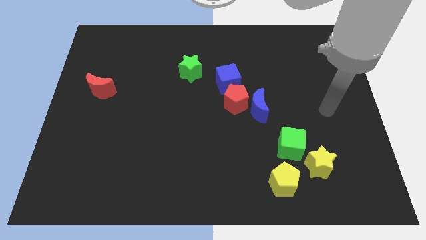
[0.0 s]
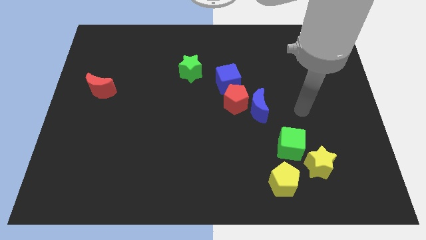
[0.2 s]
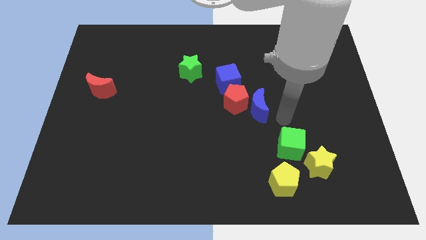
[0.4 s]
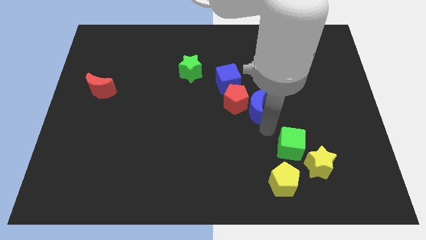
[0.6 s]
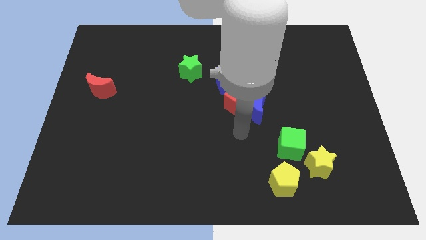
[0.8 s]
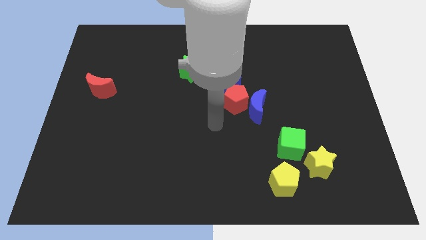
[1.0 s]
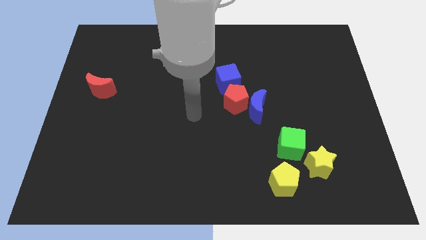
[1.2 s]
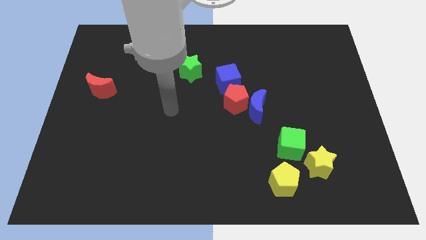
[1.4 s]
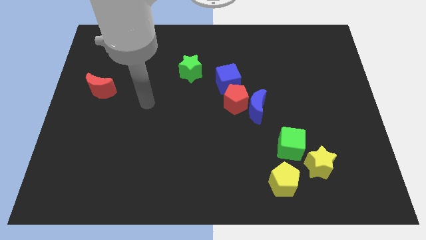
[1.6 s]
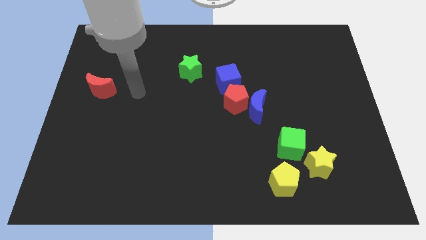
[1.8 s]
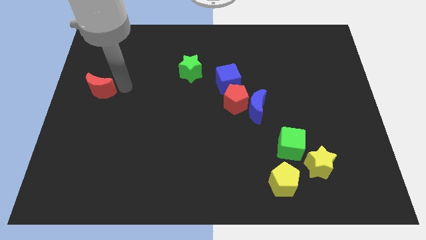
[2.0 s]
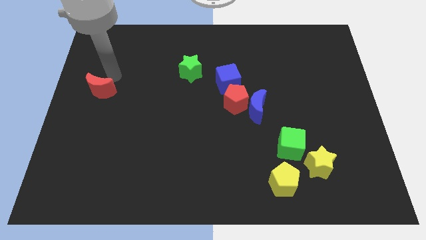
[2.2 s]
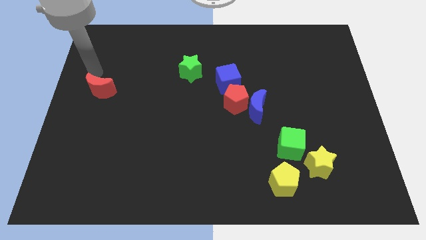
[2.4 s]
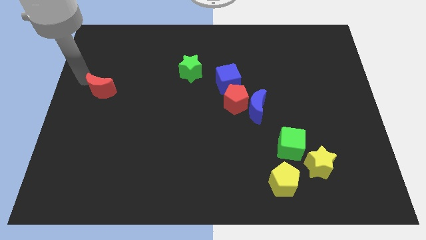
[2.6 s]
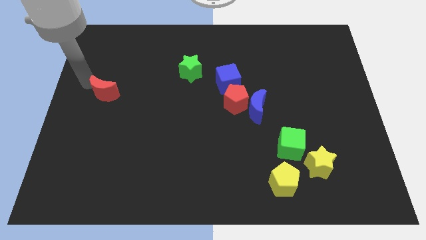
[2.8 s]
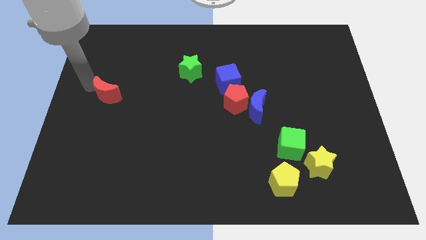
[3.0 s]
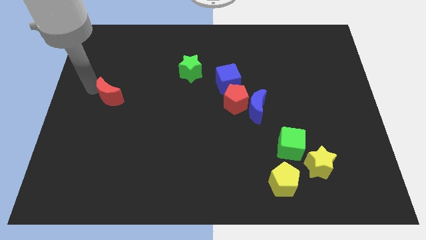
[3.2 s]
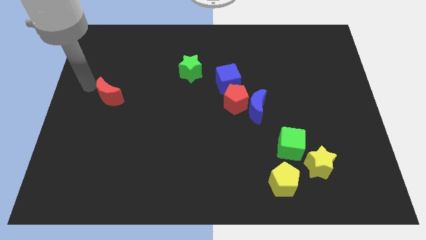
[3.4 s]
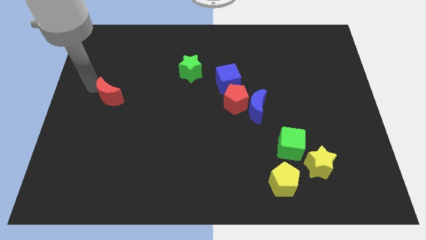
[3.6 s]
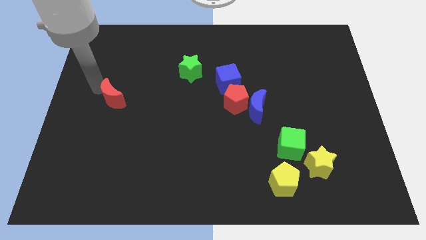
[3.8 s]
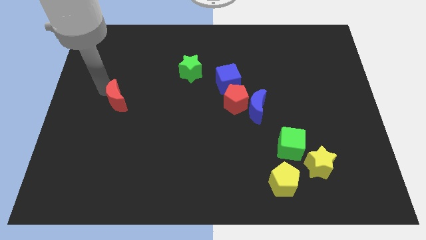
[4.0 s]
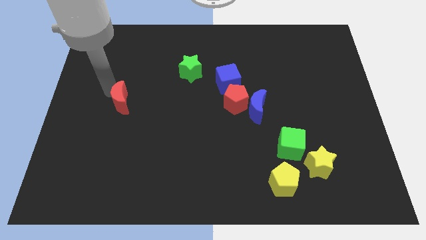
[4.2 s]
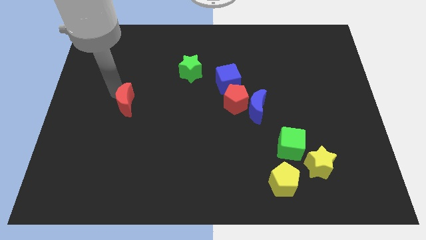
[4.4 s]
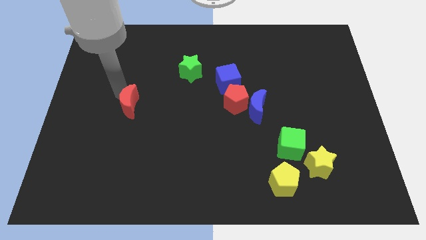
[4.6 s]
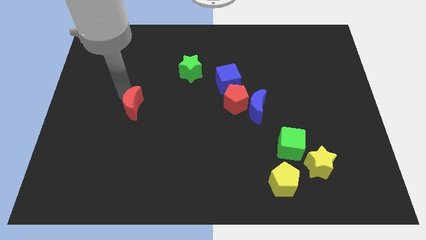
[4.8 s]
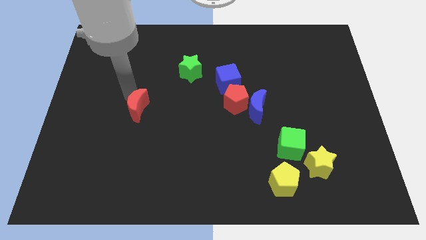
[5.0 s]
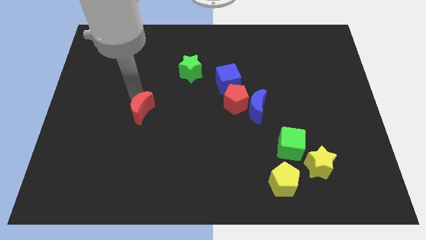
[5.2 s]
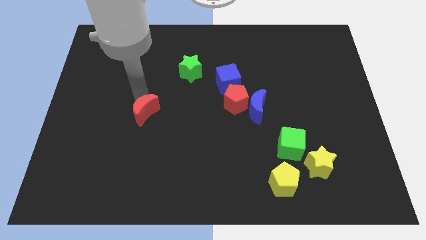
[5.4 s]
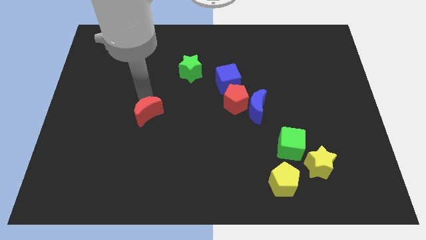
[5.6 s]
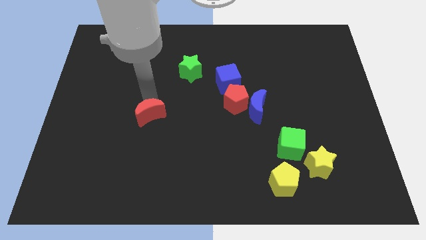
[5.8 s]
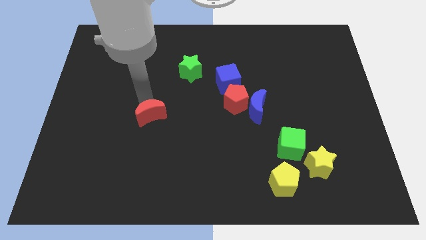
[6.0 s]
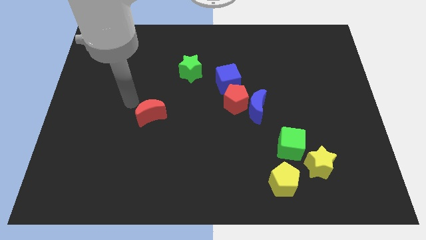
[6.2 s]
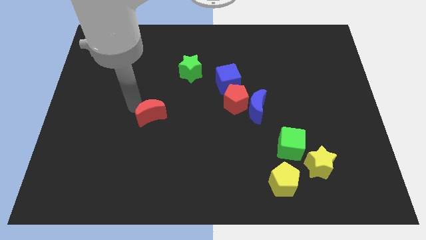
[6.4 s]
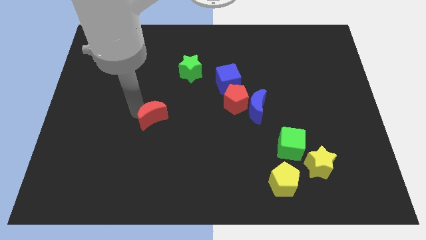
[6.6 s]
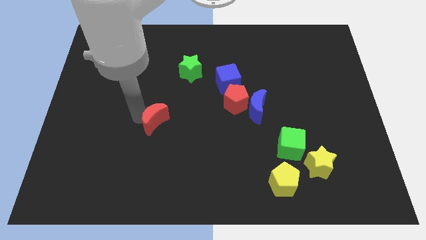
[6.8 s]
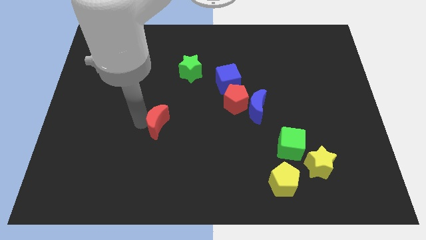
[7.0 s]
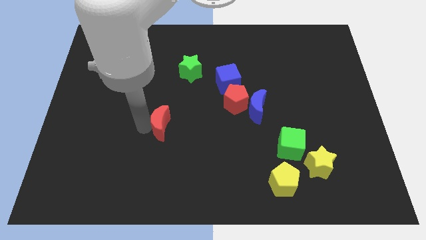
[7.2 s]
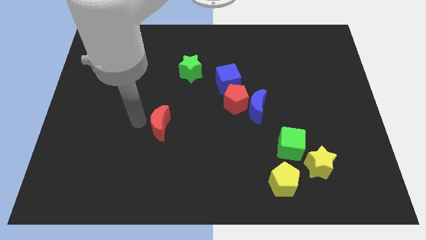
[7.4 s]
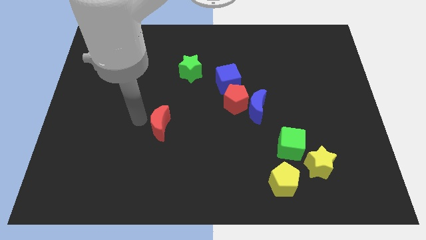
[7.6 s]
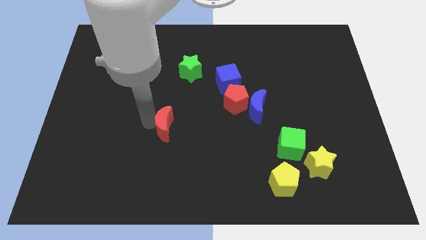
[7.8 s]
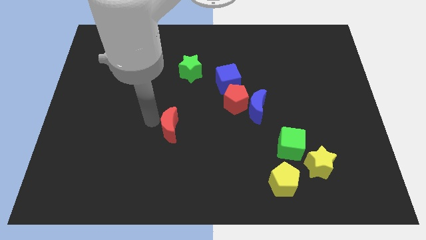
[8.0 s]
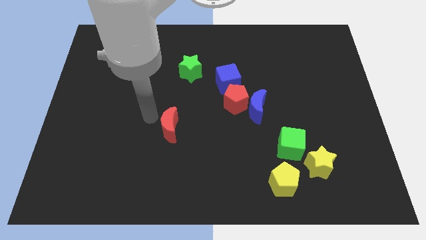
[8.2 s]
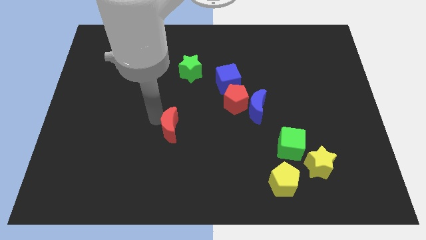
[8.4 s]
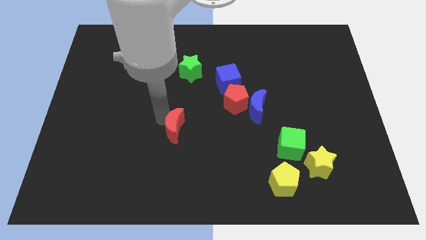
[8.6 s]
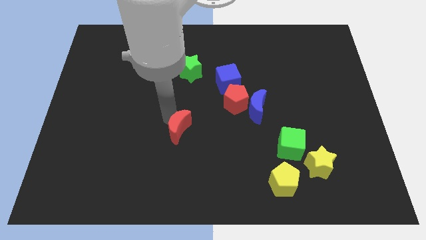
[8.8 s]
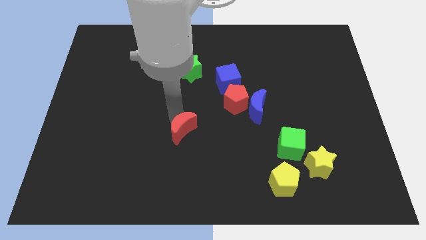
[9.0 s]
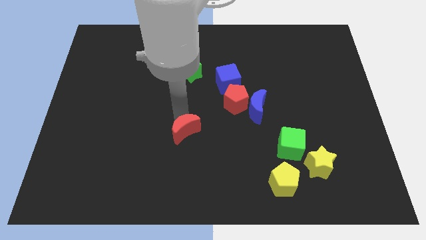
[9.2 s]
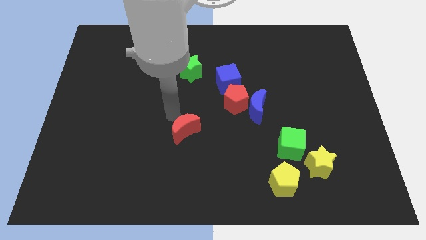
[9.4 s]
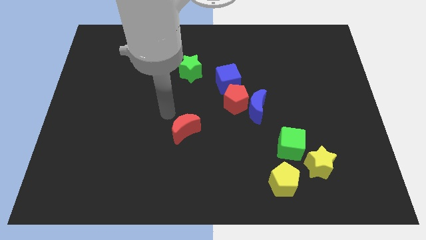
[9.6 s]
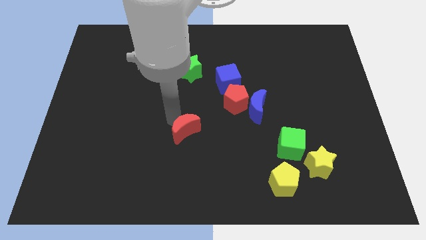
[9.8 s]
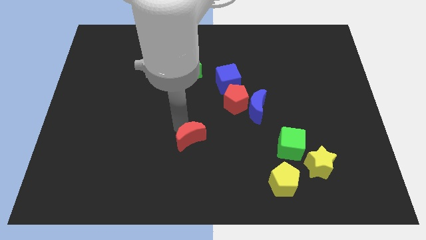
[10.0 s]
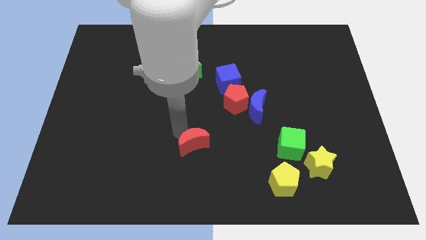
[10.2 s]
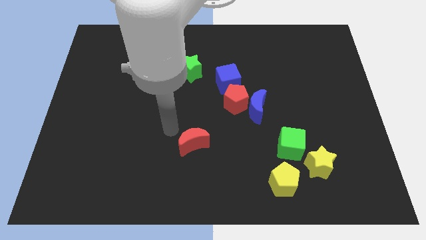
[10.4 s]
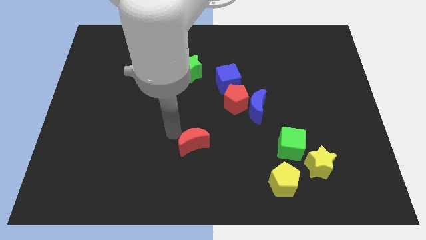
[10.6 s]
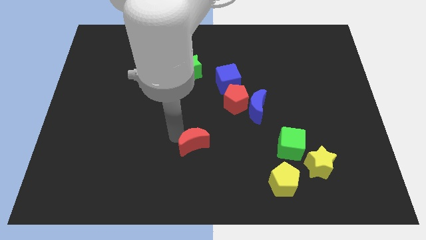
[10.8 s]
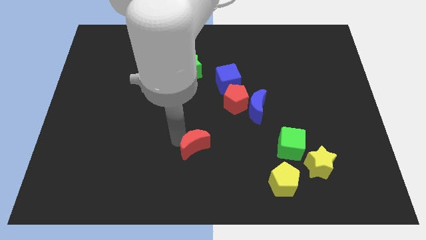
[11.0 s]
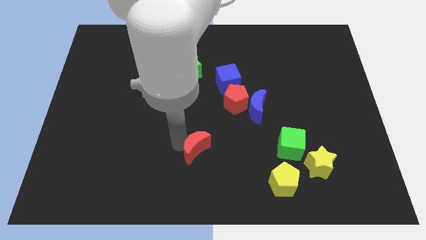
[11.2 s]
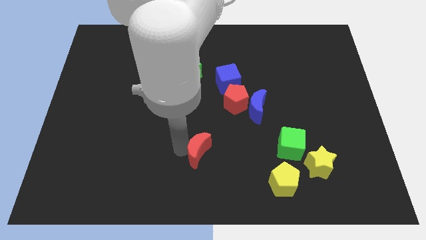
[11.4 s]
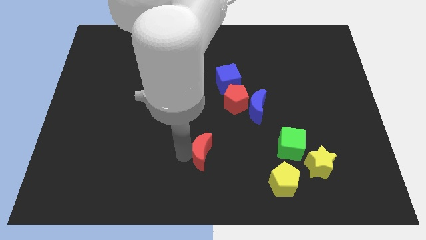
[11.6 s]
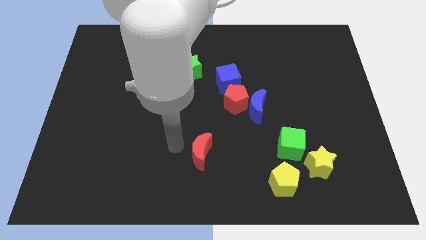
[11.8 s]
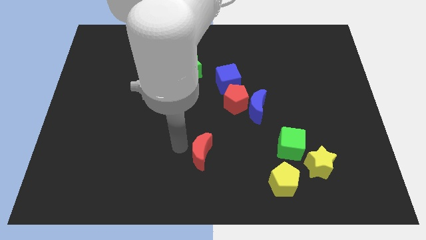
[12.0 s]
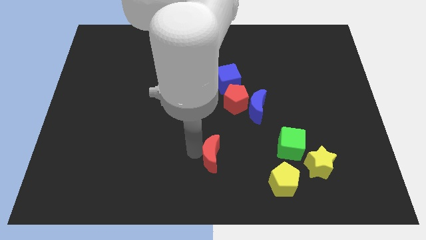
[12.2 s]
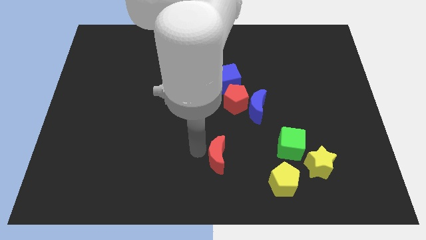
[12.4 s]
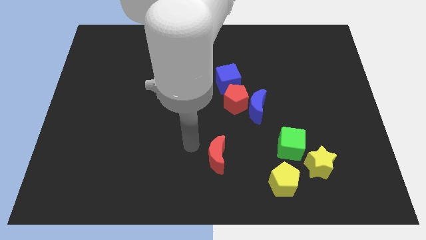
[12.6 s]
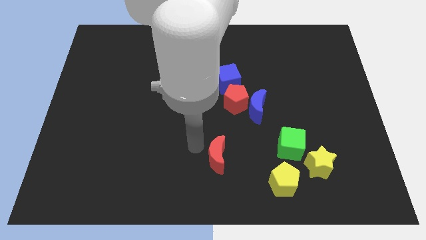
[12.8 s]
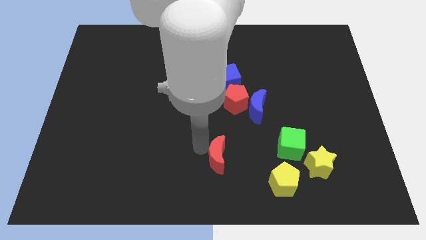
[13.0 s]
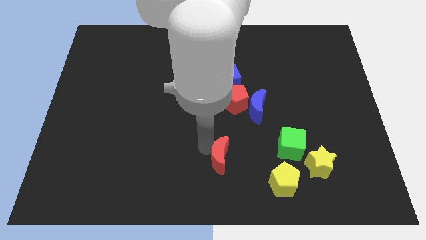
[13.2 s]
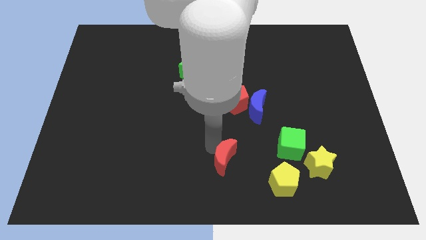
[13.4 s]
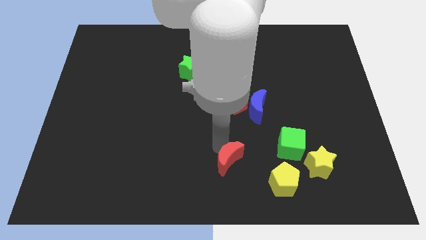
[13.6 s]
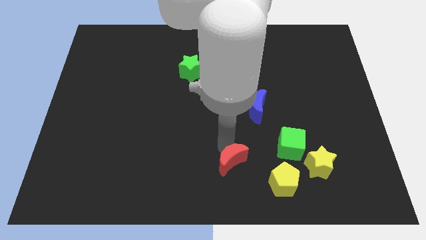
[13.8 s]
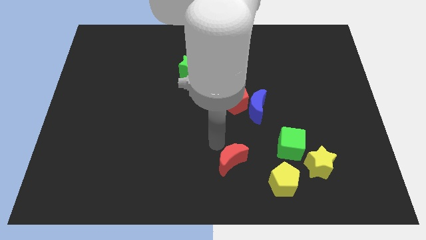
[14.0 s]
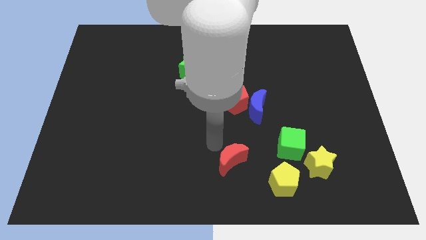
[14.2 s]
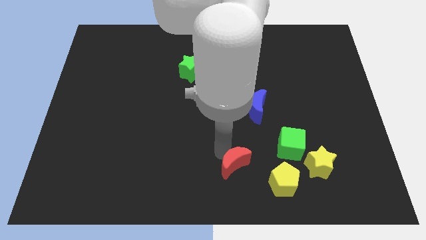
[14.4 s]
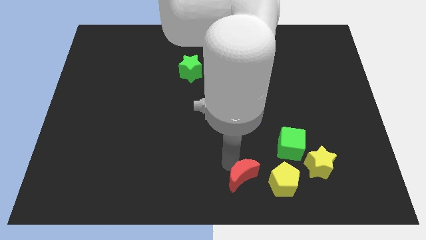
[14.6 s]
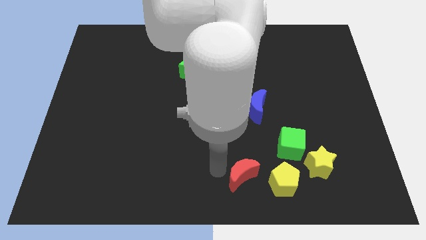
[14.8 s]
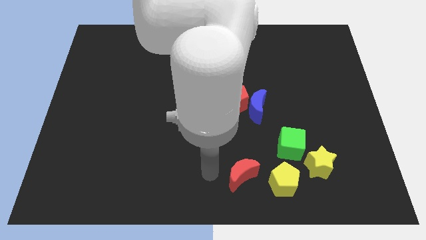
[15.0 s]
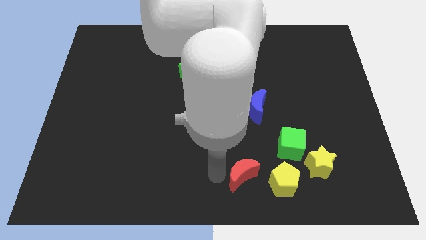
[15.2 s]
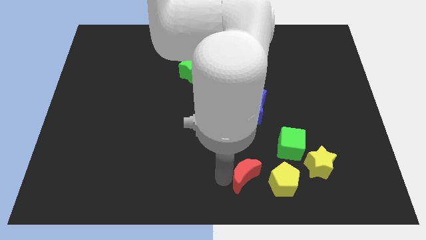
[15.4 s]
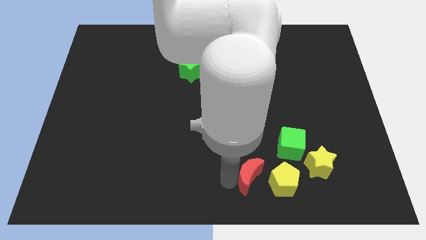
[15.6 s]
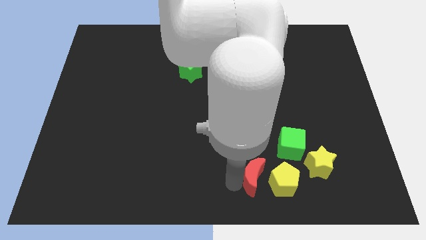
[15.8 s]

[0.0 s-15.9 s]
push the red moon next to the yellow pentagon
